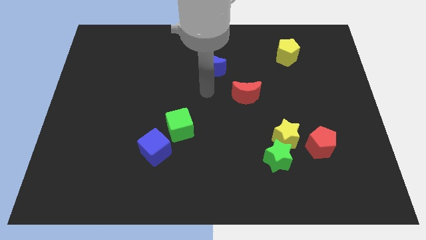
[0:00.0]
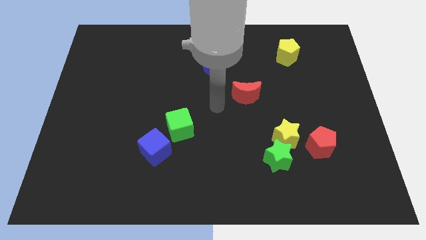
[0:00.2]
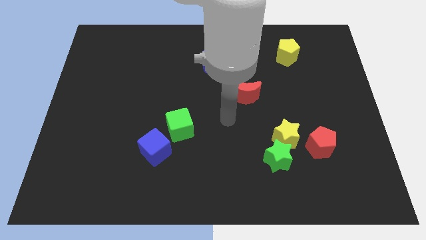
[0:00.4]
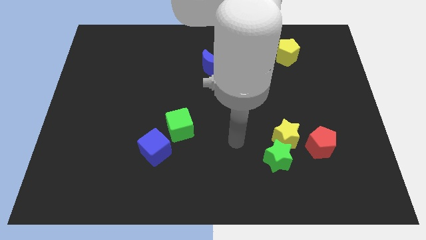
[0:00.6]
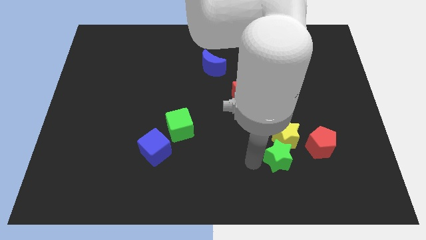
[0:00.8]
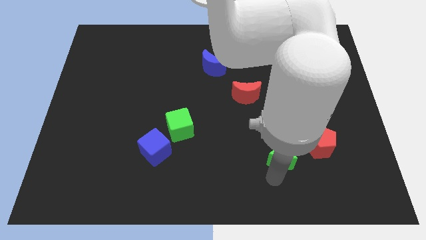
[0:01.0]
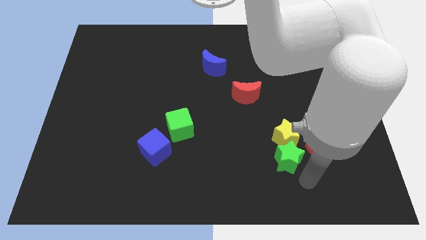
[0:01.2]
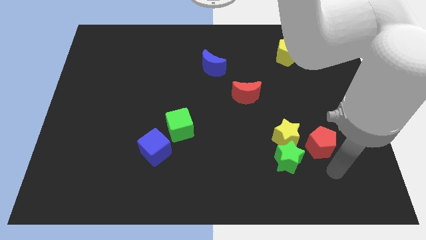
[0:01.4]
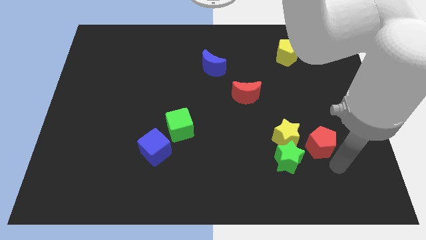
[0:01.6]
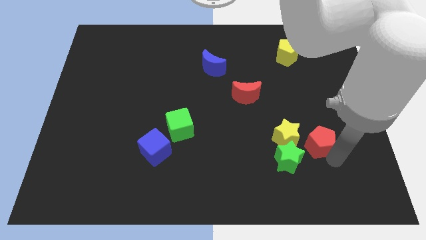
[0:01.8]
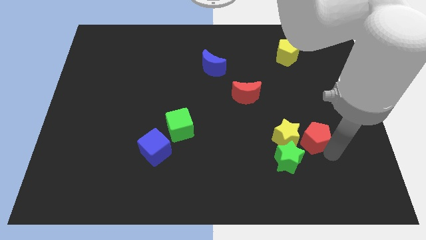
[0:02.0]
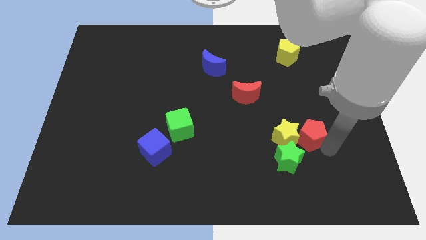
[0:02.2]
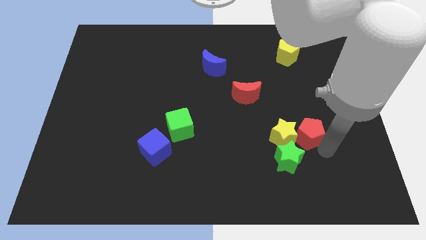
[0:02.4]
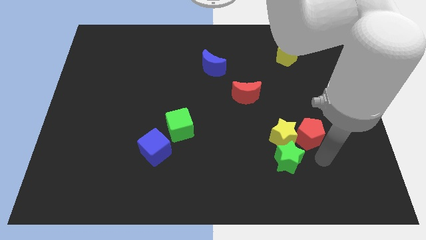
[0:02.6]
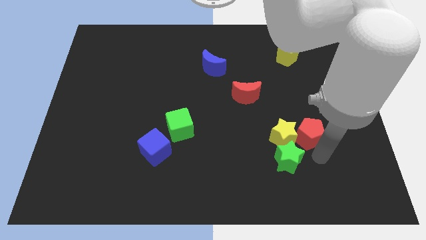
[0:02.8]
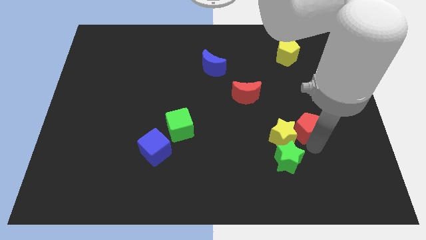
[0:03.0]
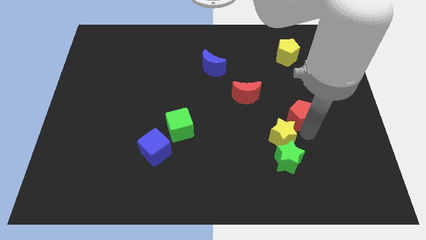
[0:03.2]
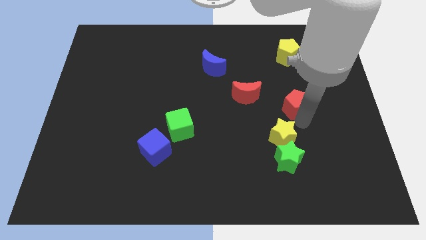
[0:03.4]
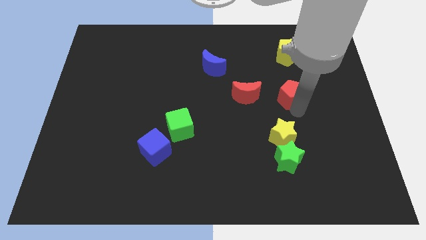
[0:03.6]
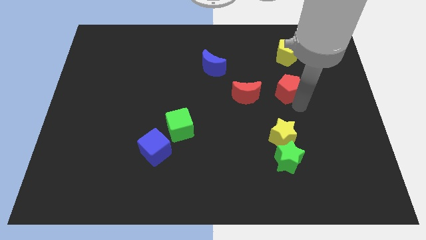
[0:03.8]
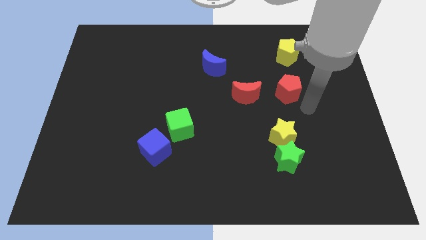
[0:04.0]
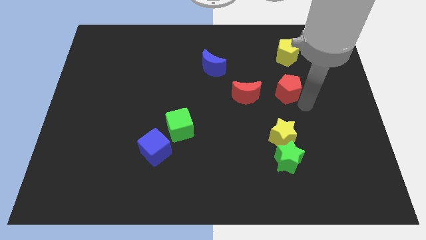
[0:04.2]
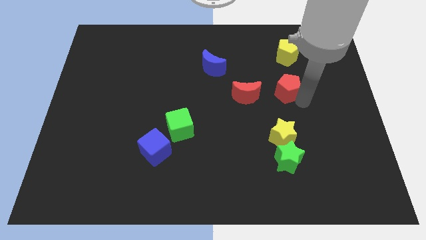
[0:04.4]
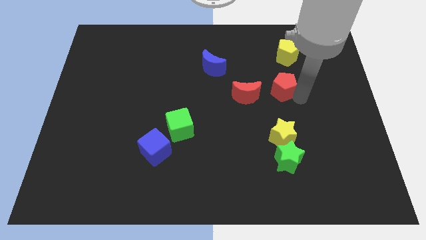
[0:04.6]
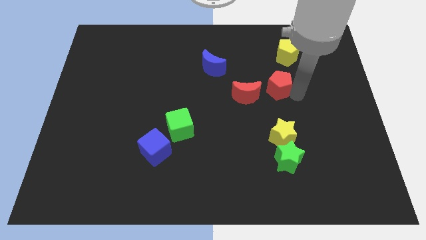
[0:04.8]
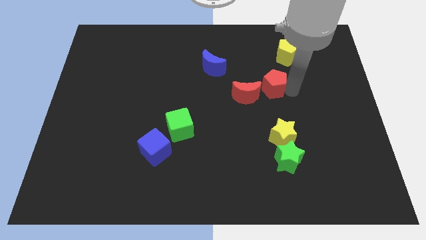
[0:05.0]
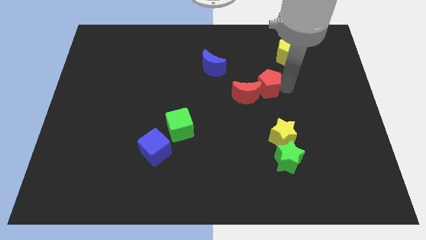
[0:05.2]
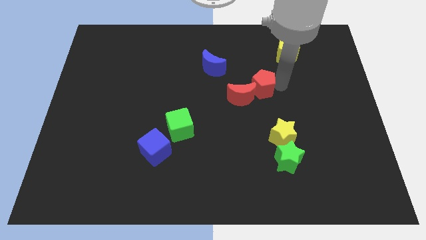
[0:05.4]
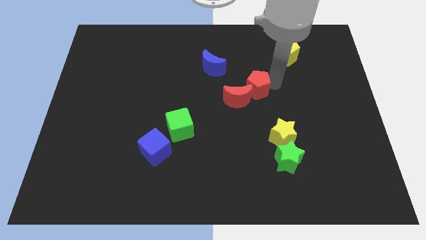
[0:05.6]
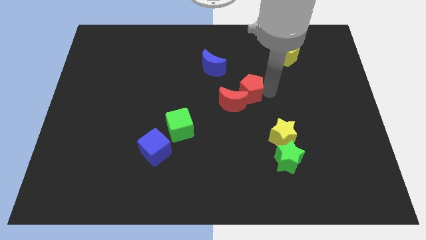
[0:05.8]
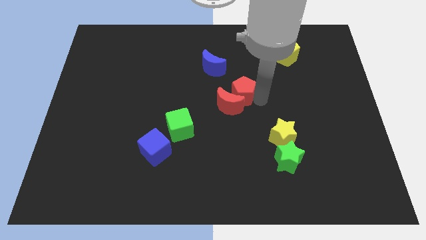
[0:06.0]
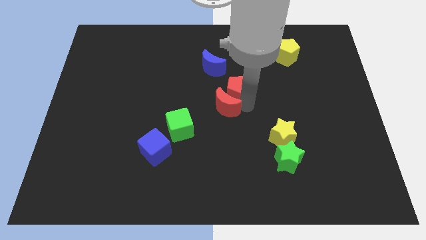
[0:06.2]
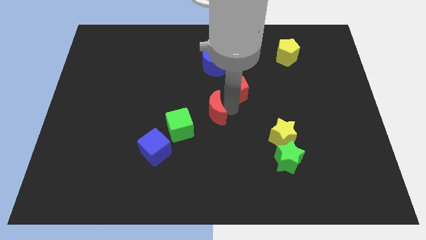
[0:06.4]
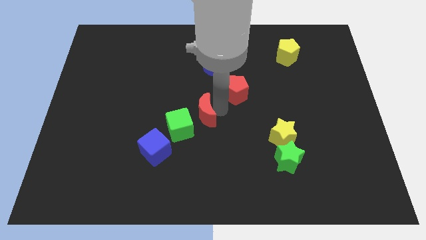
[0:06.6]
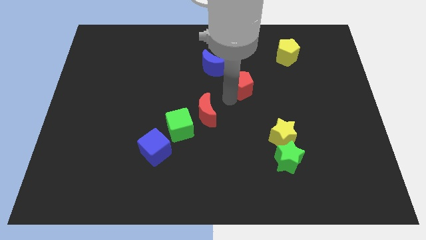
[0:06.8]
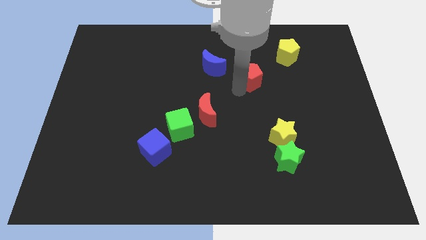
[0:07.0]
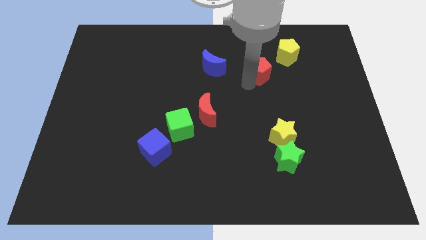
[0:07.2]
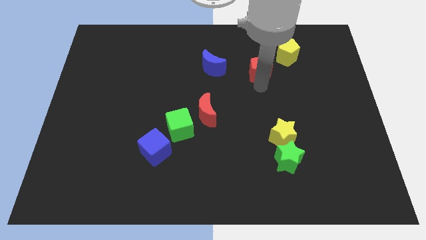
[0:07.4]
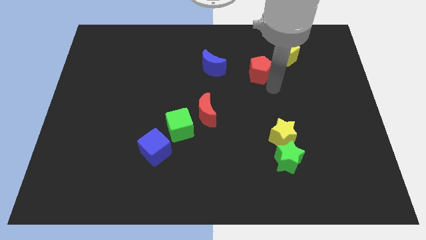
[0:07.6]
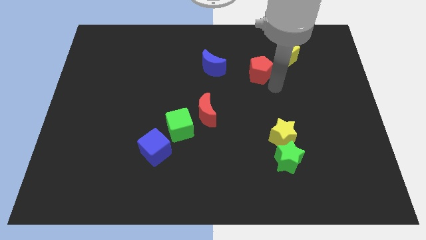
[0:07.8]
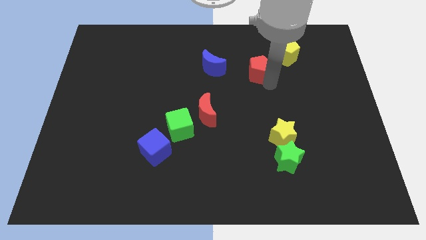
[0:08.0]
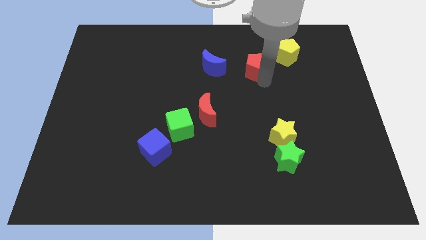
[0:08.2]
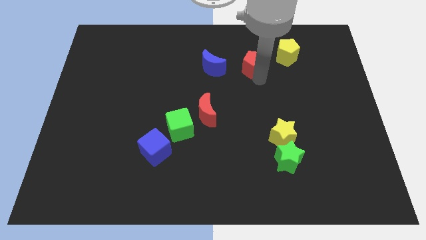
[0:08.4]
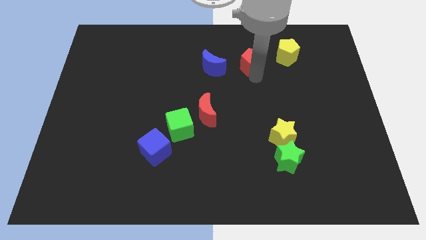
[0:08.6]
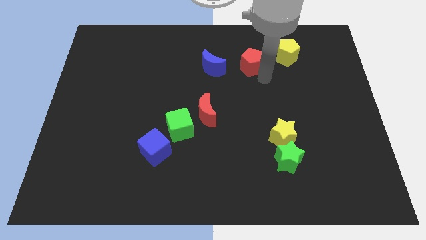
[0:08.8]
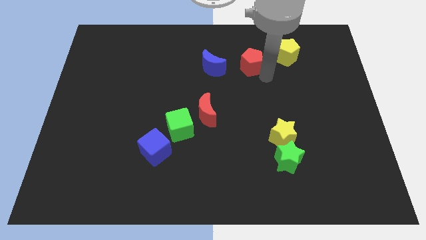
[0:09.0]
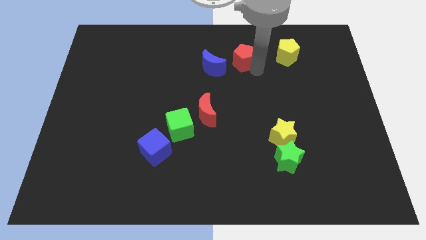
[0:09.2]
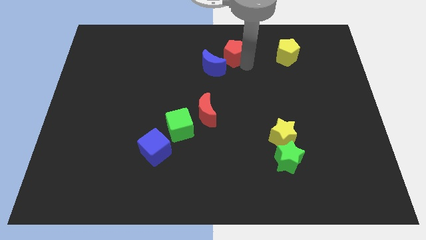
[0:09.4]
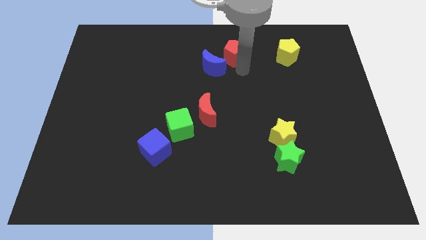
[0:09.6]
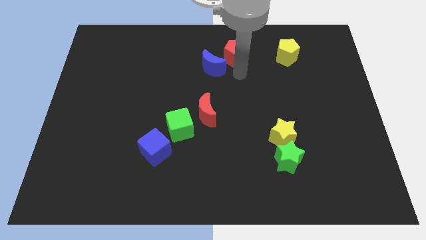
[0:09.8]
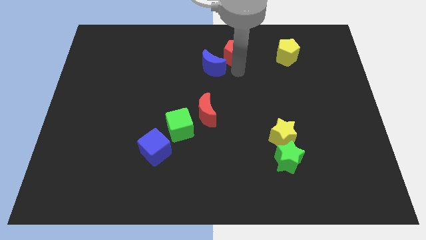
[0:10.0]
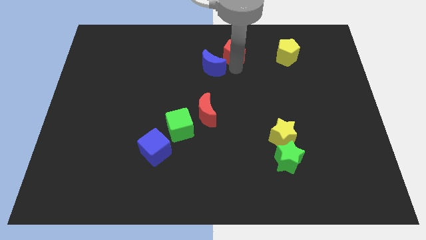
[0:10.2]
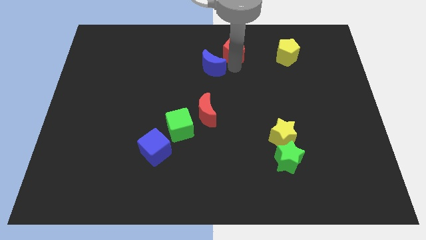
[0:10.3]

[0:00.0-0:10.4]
put the red pentagon to the towards your base

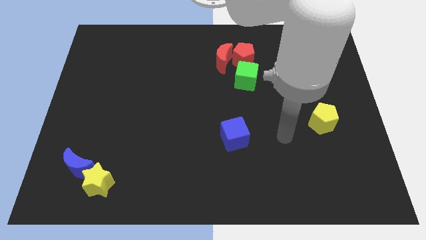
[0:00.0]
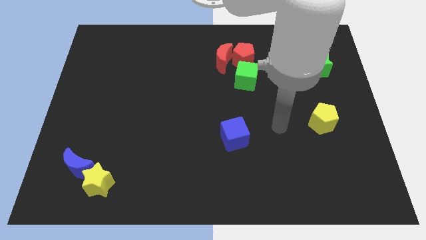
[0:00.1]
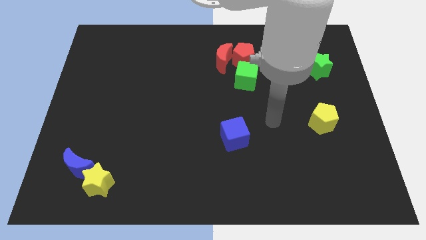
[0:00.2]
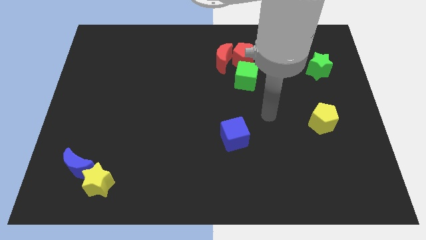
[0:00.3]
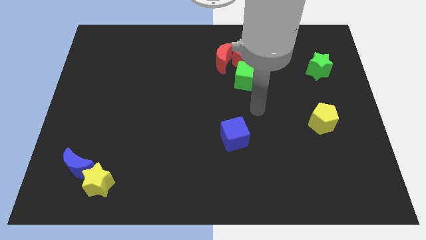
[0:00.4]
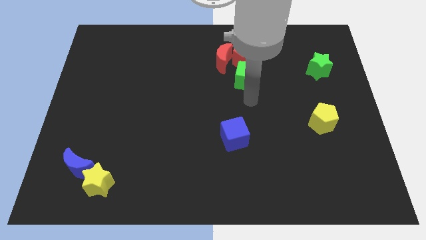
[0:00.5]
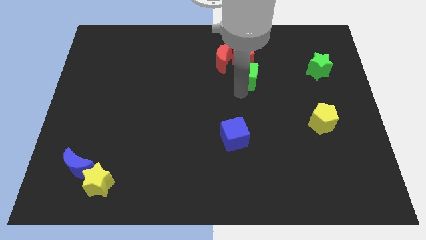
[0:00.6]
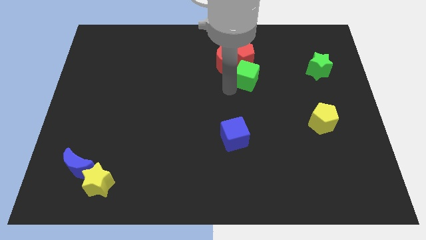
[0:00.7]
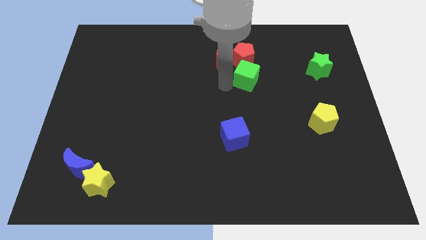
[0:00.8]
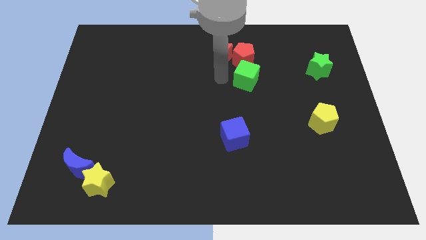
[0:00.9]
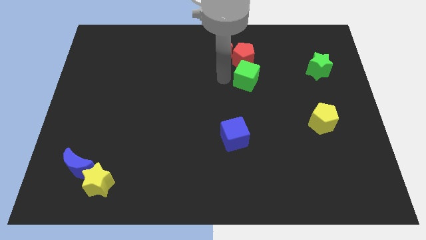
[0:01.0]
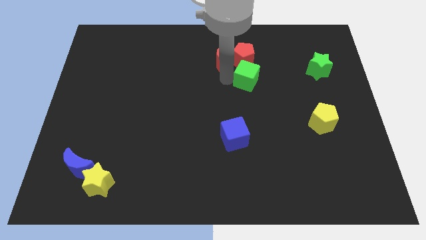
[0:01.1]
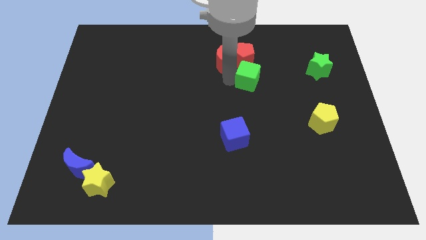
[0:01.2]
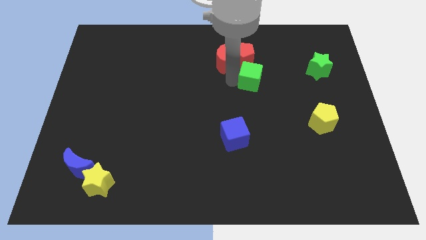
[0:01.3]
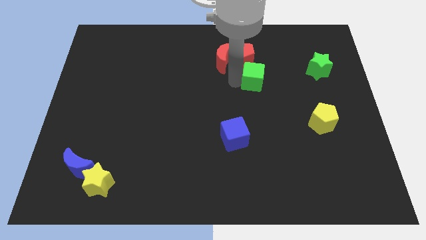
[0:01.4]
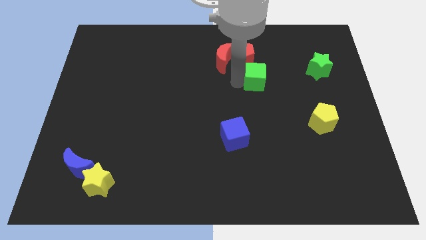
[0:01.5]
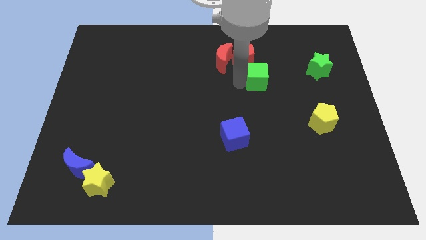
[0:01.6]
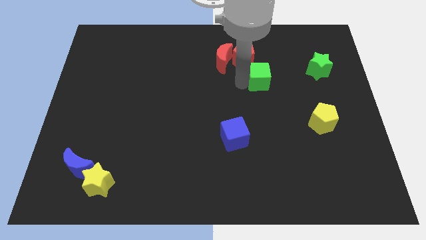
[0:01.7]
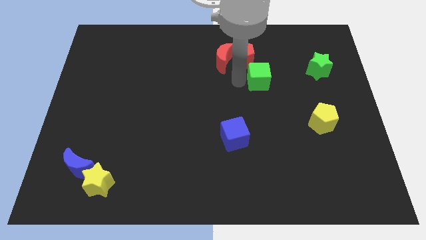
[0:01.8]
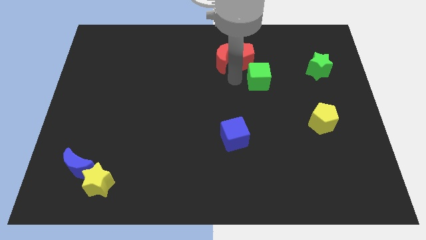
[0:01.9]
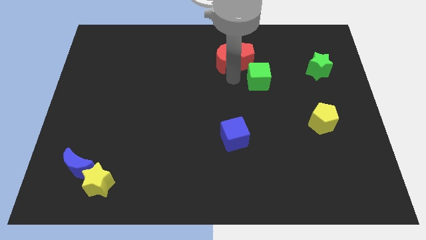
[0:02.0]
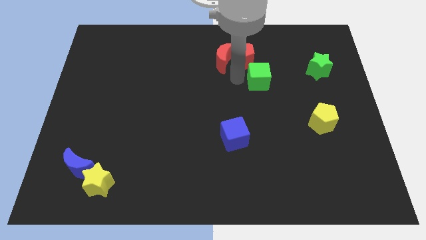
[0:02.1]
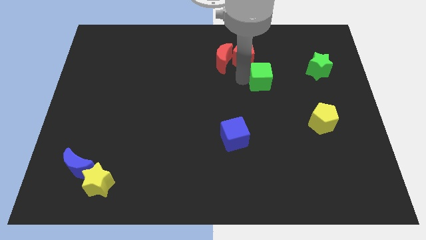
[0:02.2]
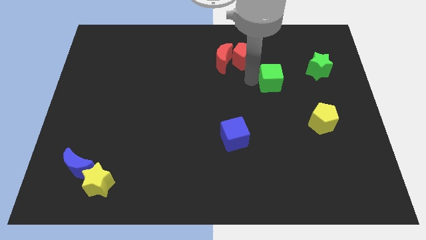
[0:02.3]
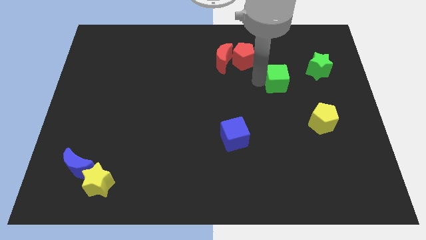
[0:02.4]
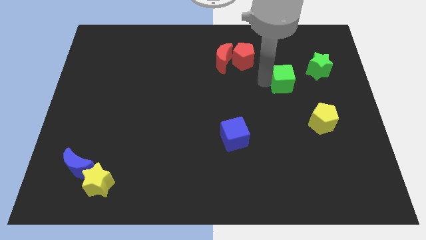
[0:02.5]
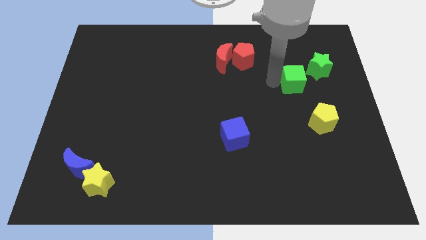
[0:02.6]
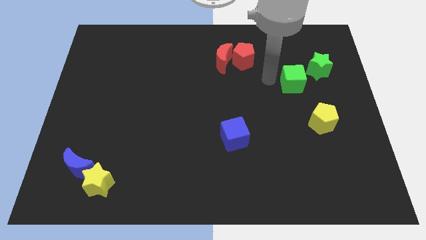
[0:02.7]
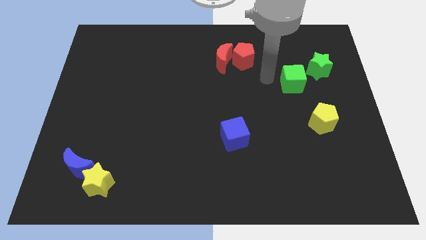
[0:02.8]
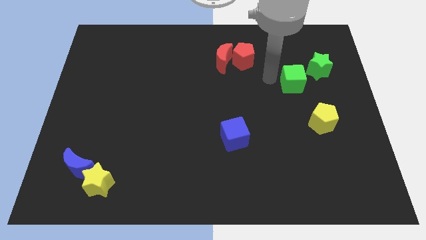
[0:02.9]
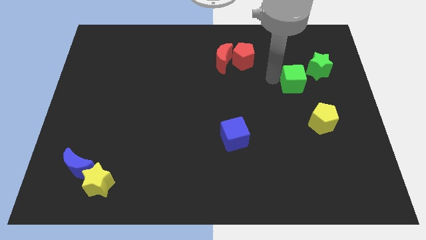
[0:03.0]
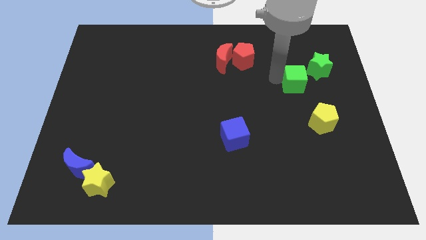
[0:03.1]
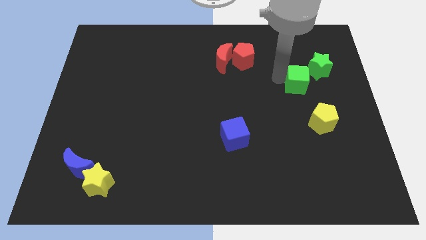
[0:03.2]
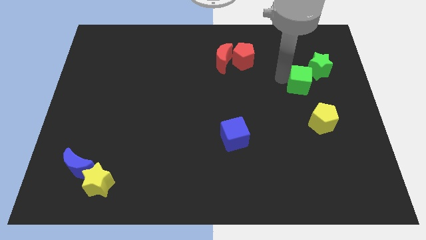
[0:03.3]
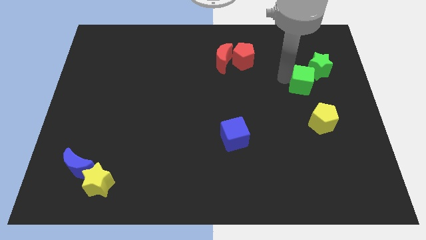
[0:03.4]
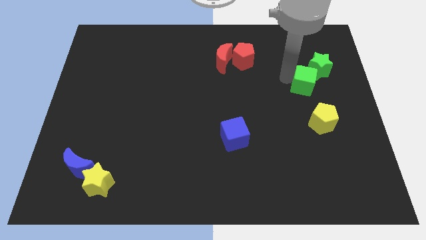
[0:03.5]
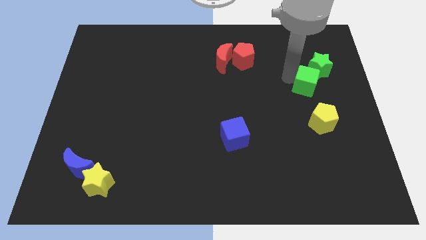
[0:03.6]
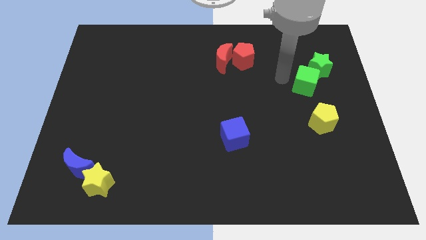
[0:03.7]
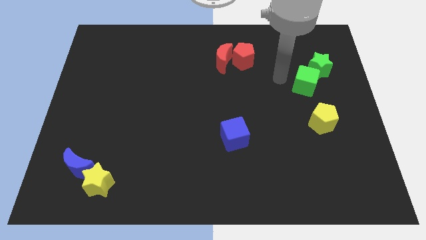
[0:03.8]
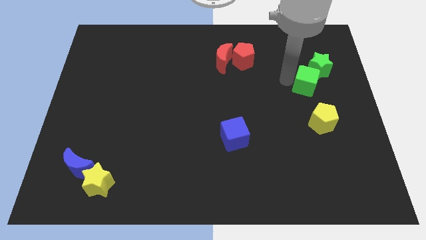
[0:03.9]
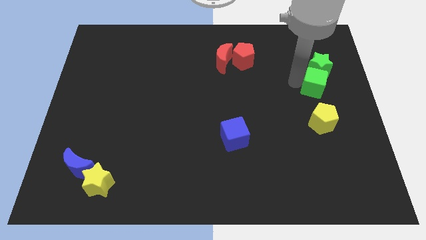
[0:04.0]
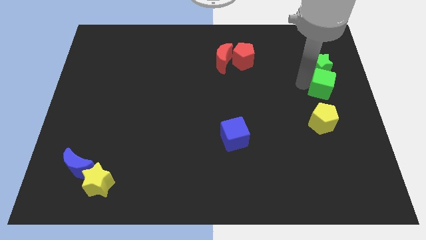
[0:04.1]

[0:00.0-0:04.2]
put the green cube to the center right
